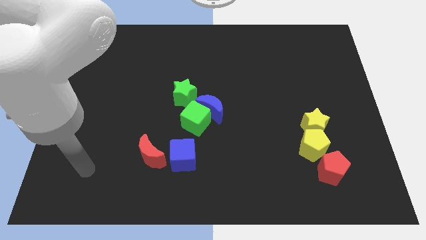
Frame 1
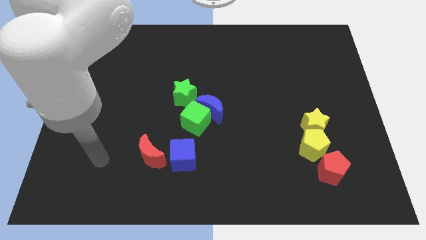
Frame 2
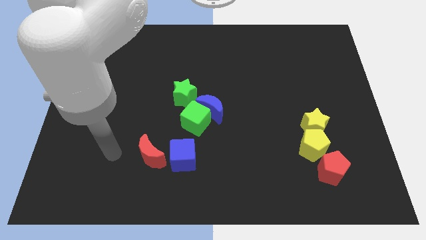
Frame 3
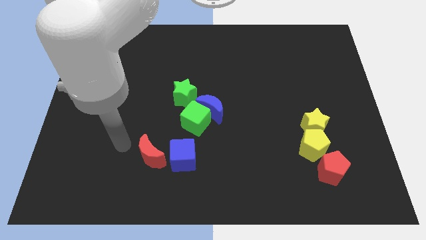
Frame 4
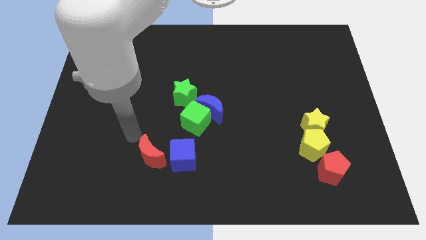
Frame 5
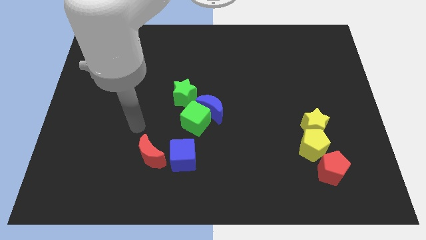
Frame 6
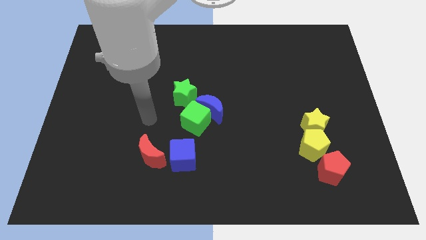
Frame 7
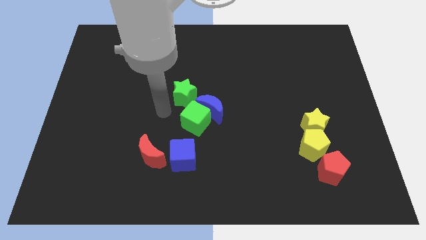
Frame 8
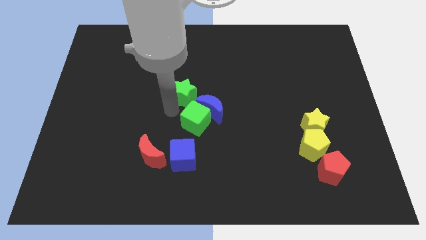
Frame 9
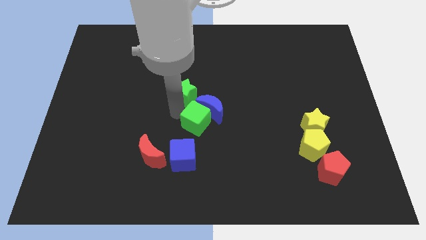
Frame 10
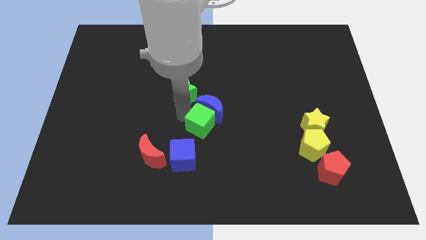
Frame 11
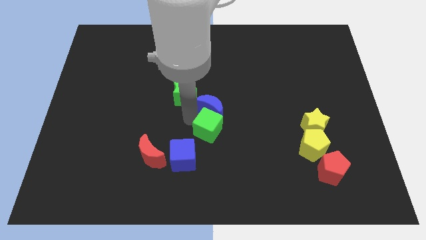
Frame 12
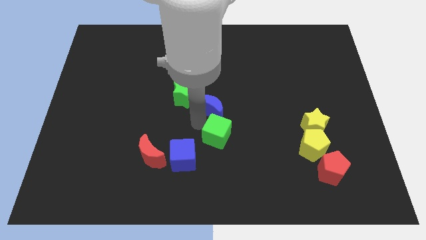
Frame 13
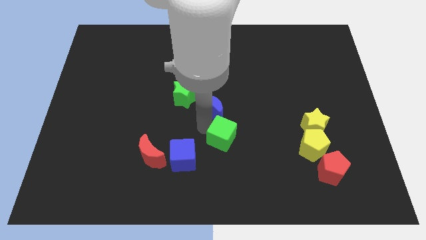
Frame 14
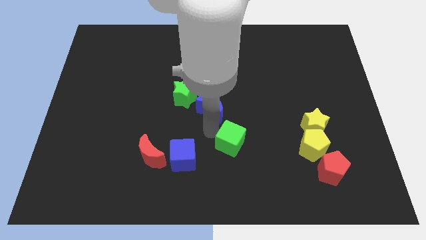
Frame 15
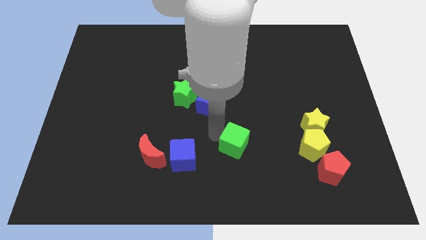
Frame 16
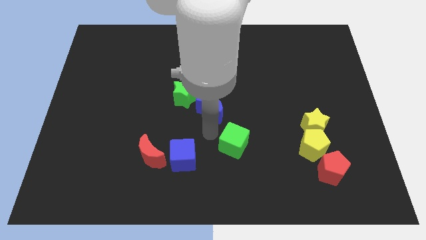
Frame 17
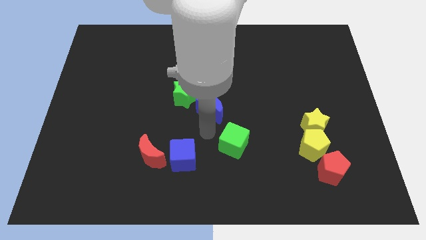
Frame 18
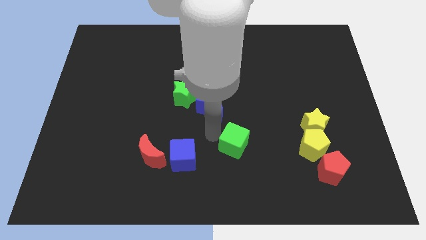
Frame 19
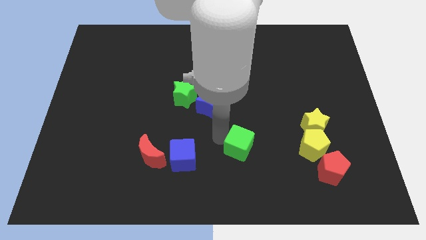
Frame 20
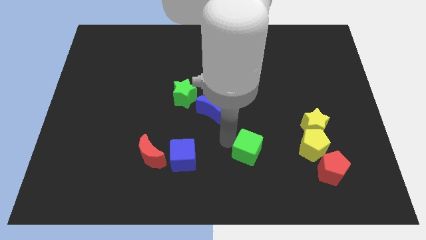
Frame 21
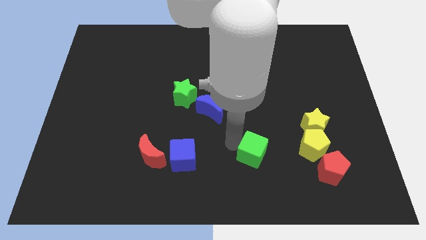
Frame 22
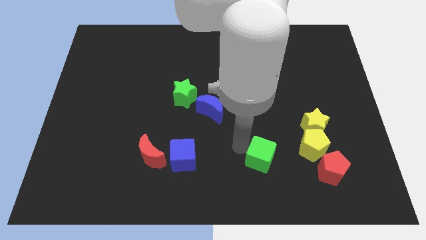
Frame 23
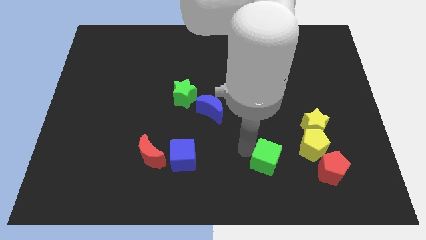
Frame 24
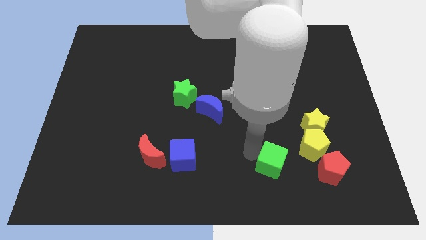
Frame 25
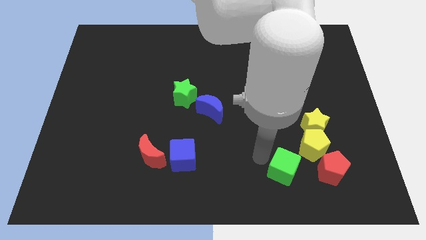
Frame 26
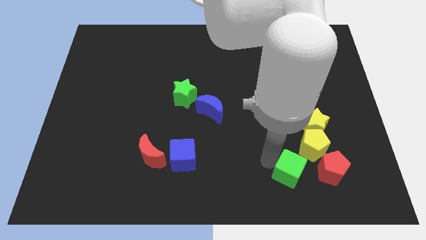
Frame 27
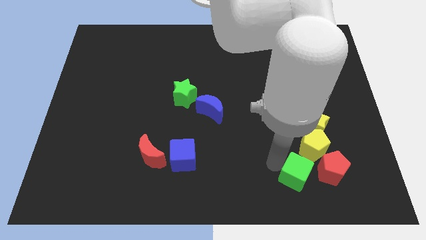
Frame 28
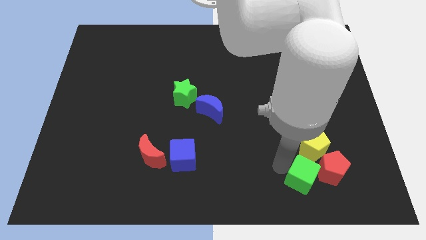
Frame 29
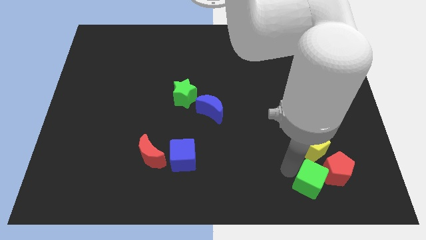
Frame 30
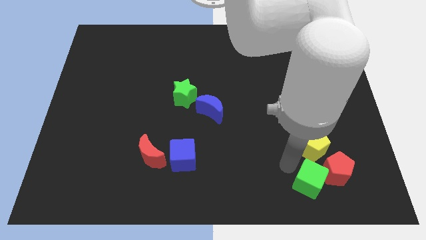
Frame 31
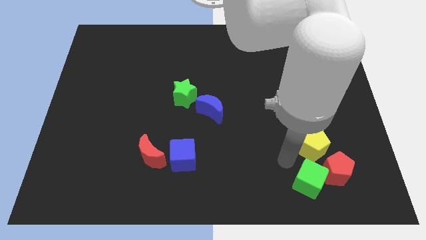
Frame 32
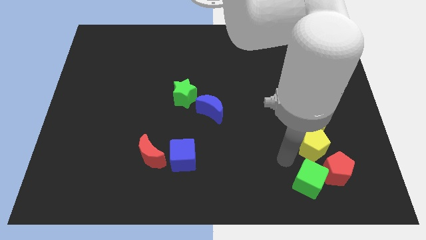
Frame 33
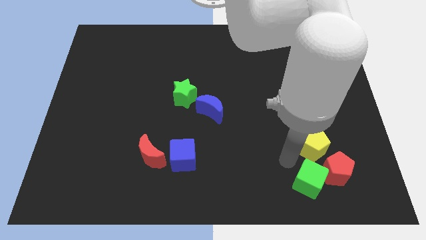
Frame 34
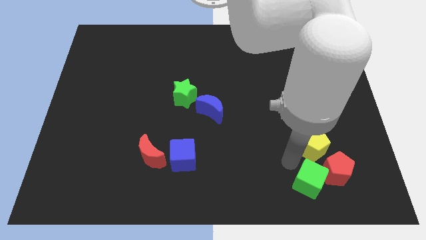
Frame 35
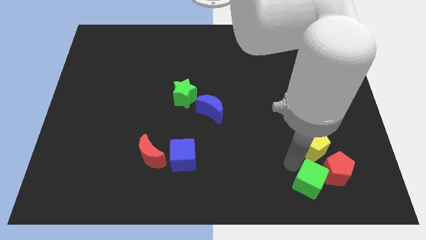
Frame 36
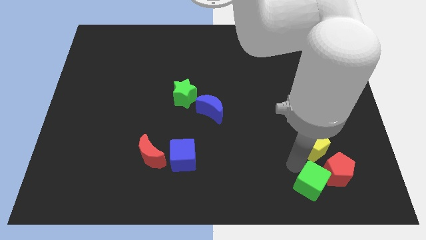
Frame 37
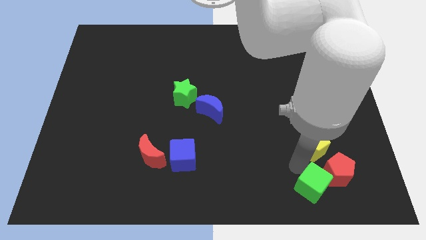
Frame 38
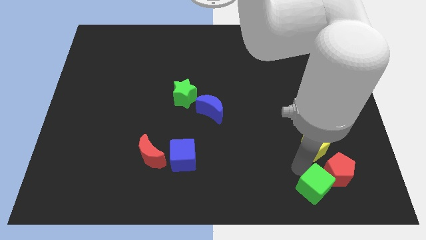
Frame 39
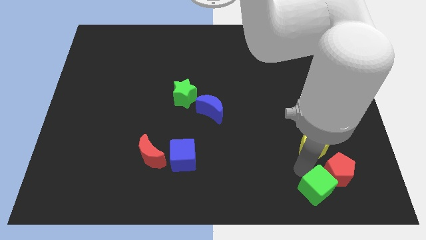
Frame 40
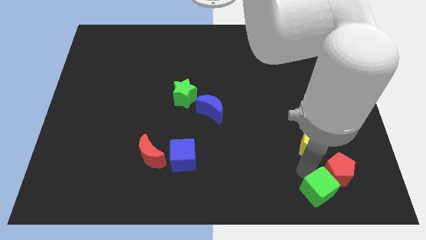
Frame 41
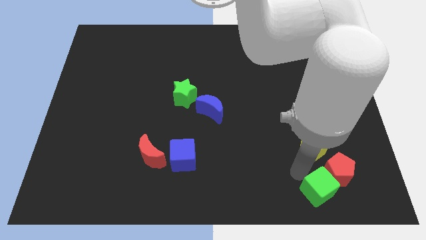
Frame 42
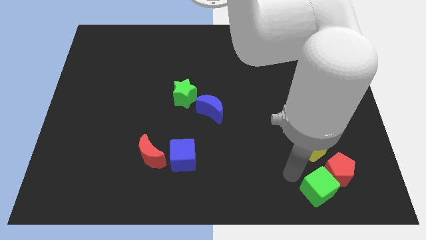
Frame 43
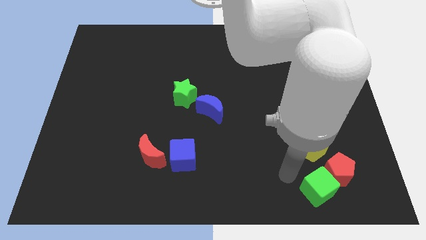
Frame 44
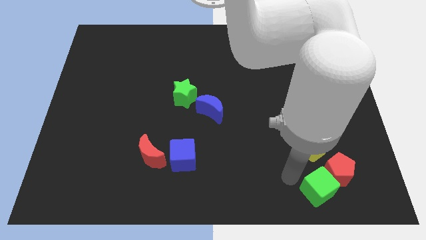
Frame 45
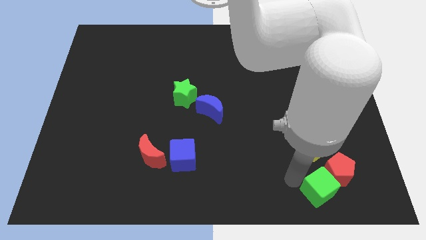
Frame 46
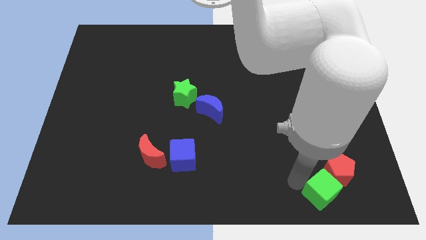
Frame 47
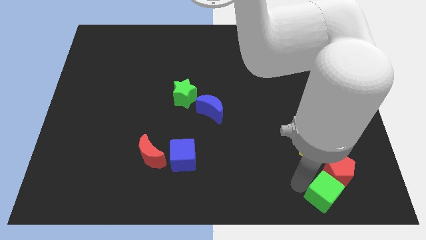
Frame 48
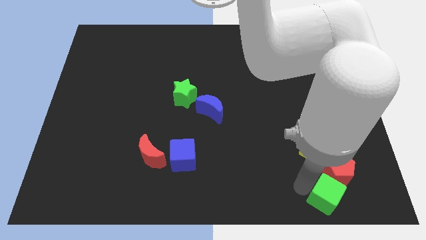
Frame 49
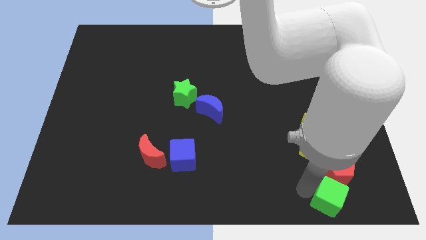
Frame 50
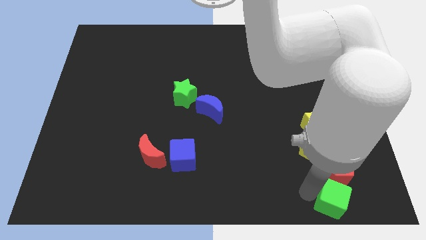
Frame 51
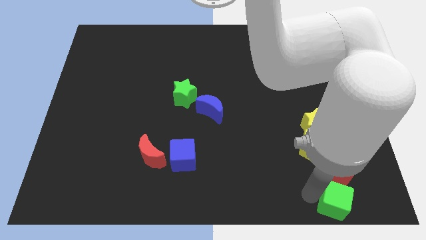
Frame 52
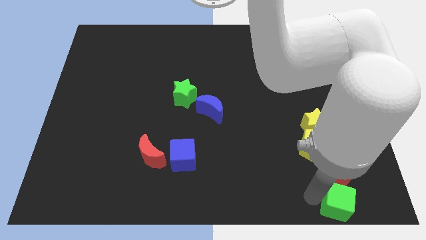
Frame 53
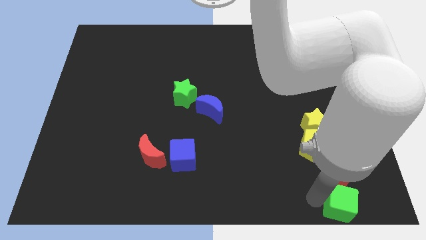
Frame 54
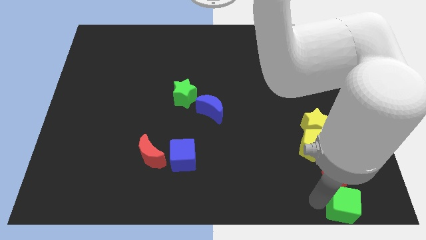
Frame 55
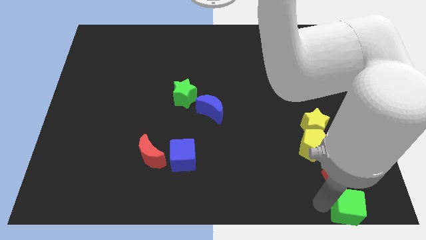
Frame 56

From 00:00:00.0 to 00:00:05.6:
push the green cube to the bottom right of the board

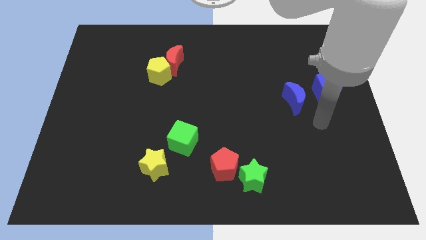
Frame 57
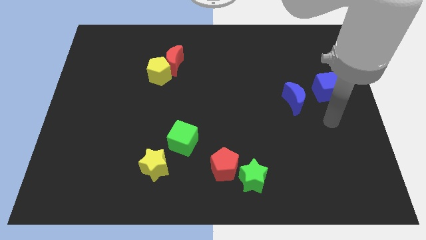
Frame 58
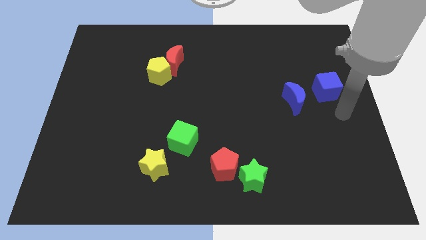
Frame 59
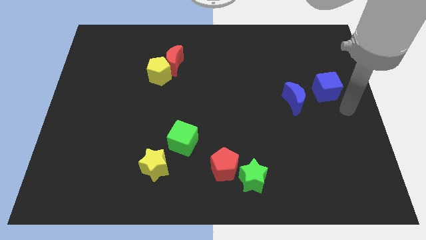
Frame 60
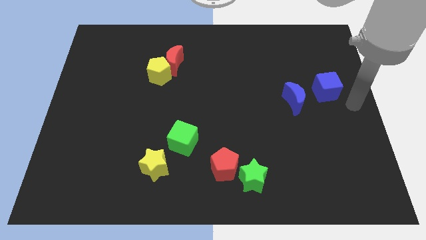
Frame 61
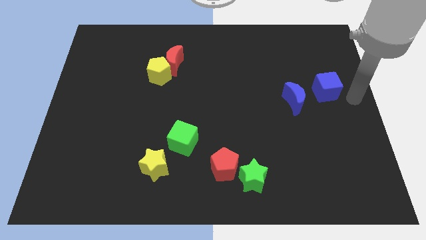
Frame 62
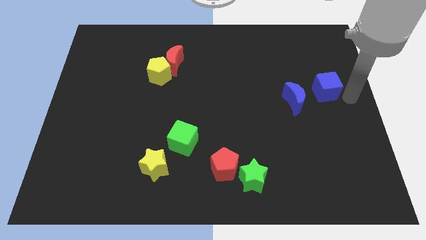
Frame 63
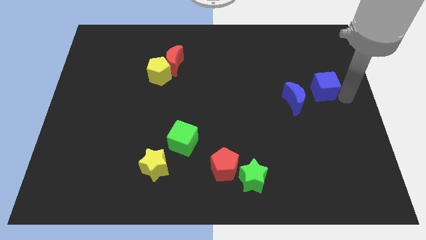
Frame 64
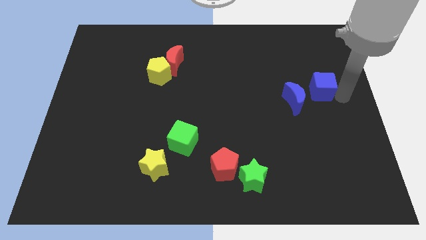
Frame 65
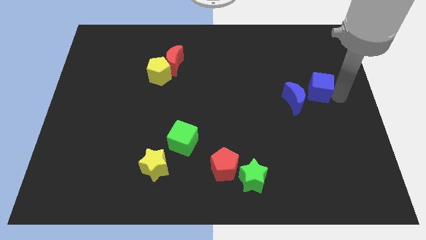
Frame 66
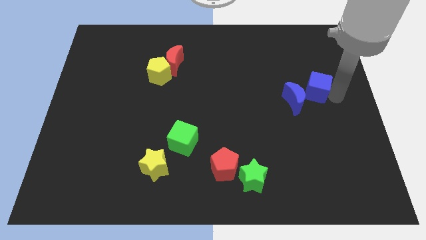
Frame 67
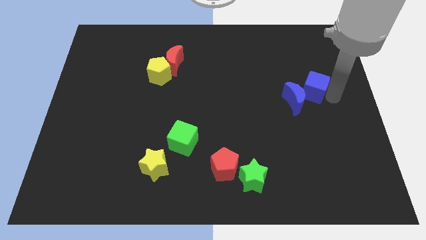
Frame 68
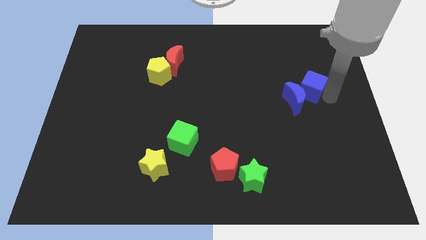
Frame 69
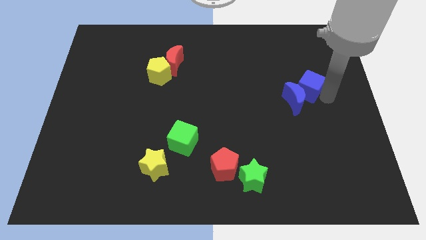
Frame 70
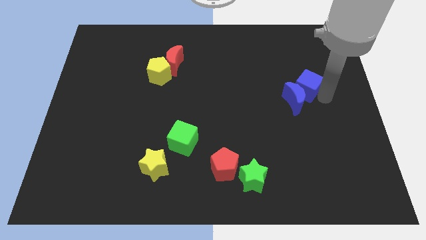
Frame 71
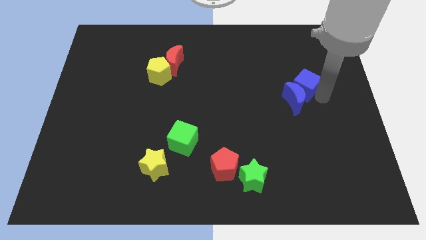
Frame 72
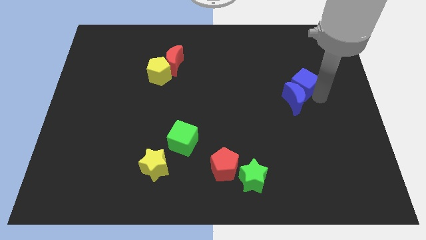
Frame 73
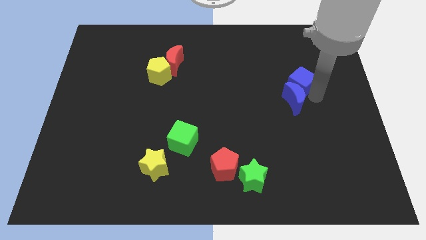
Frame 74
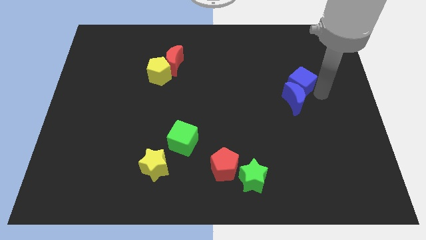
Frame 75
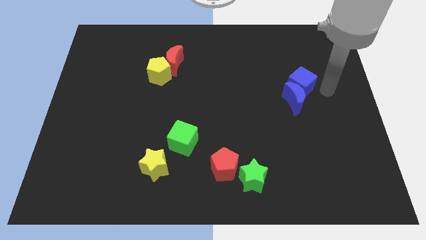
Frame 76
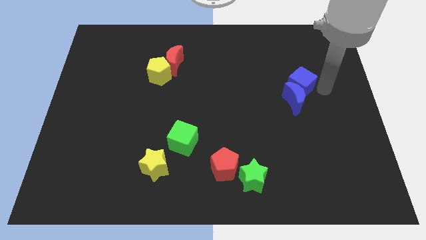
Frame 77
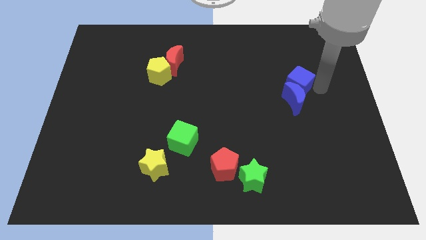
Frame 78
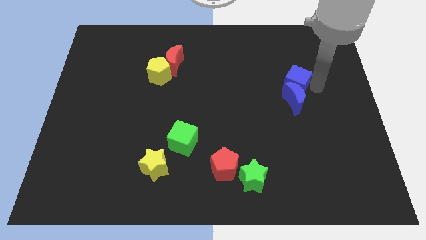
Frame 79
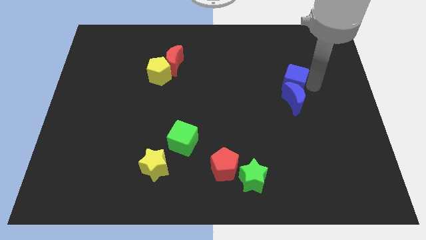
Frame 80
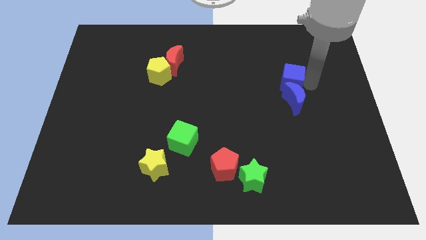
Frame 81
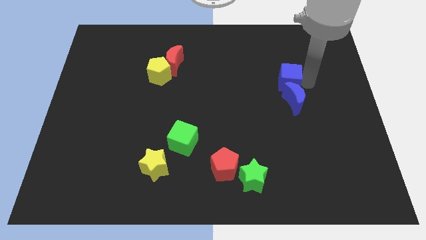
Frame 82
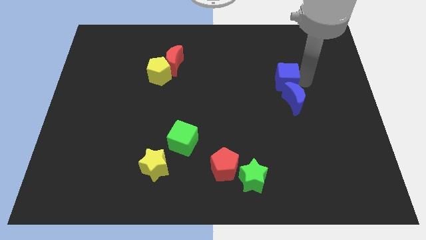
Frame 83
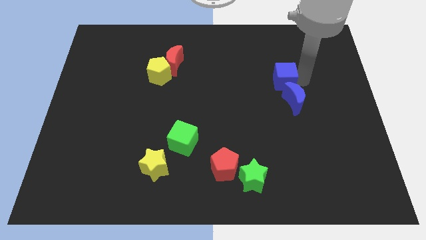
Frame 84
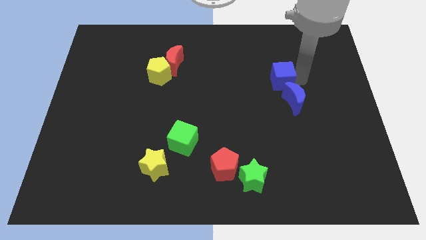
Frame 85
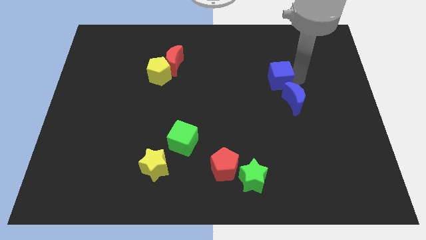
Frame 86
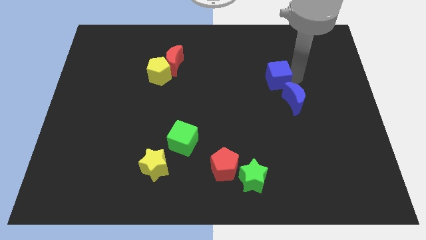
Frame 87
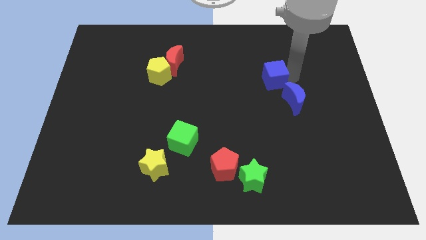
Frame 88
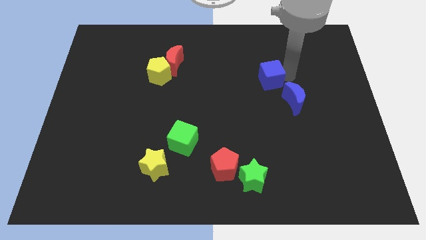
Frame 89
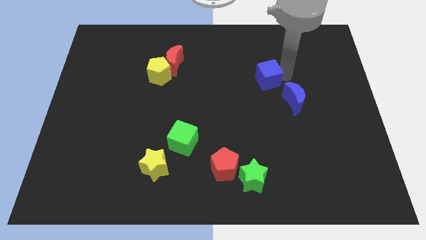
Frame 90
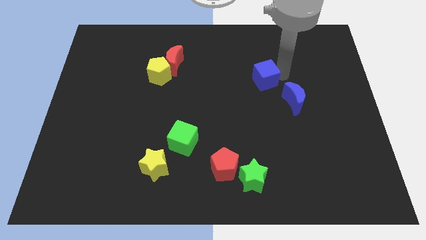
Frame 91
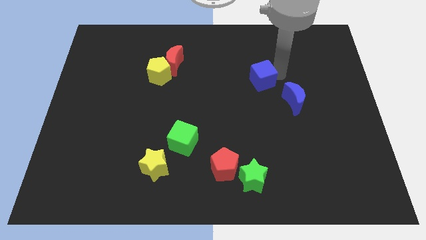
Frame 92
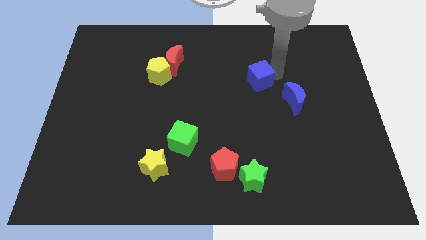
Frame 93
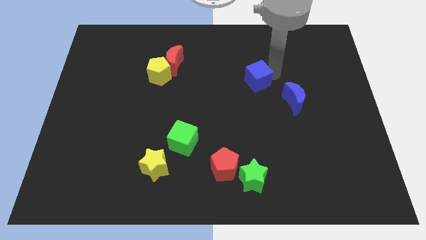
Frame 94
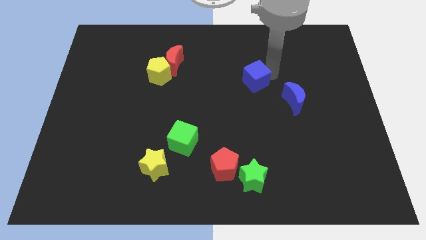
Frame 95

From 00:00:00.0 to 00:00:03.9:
slide the blue cube to the middle of the board
